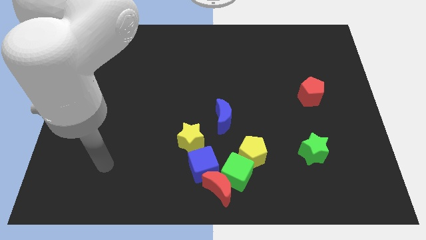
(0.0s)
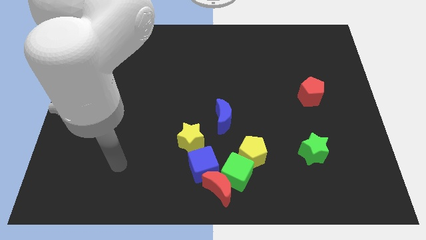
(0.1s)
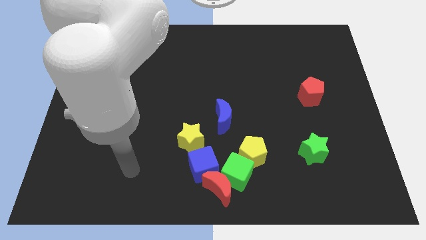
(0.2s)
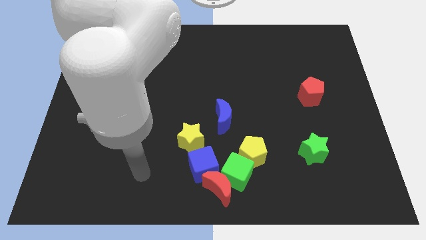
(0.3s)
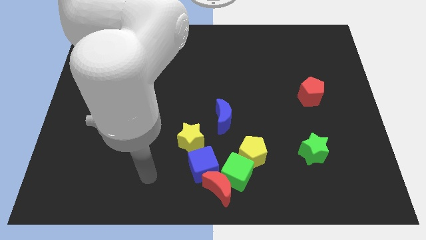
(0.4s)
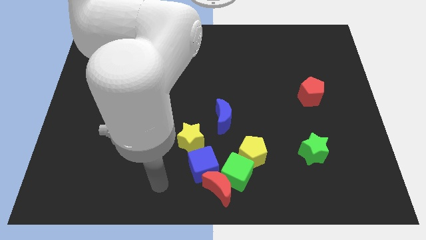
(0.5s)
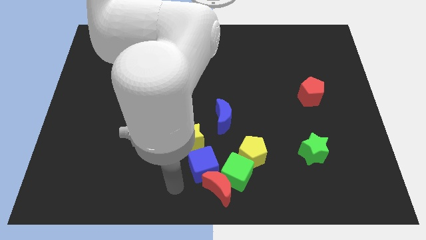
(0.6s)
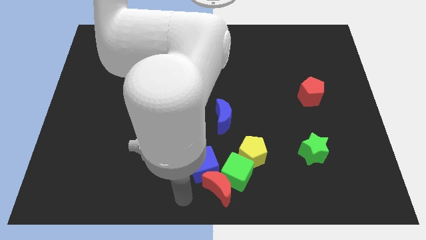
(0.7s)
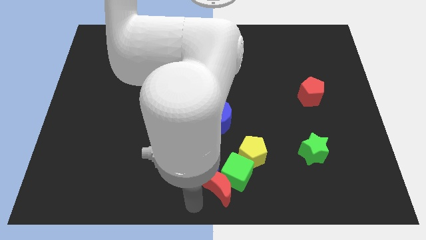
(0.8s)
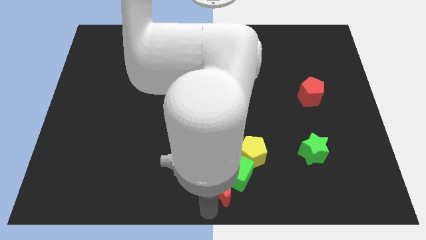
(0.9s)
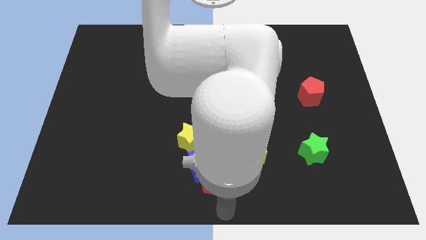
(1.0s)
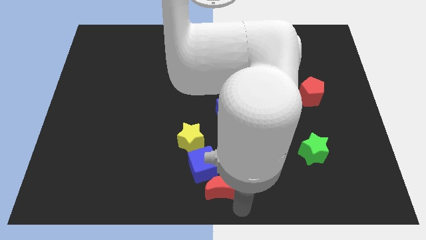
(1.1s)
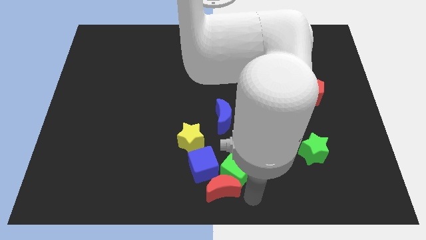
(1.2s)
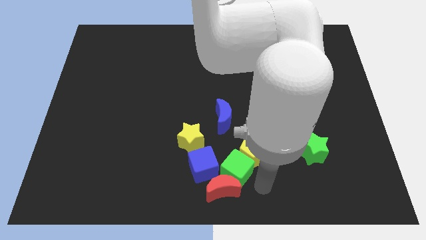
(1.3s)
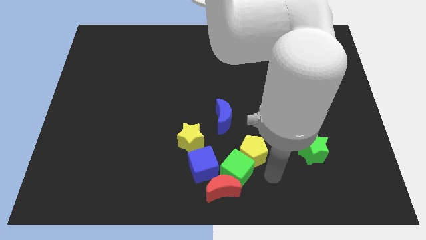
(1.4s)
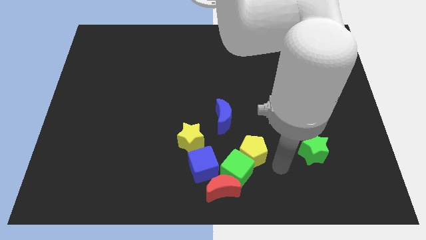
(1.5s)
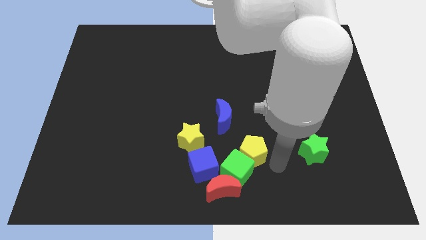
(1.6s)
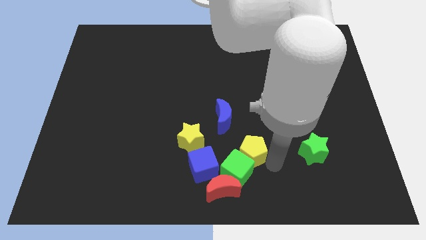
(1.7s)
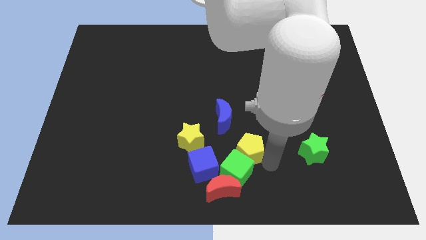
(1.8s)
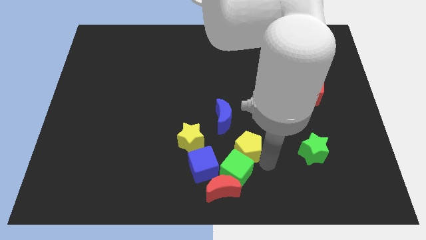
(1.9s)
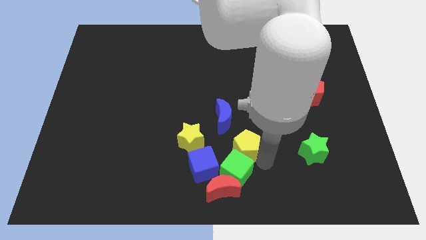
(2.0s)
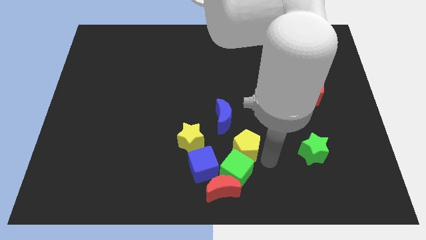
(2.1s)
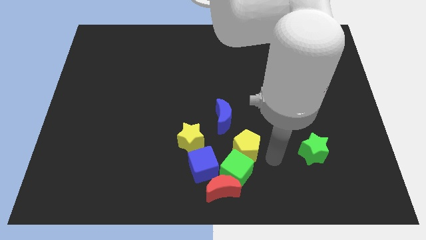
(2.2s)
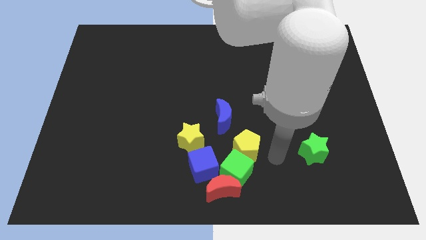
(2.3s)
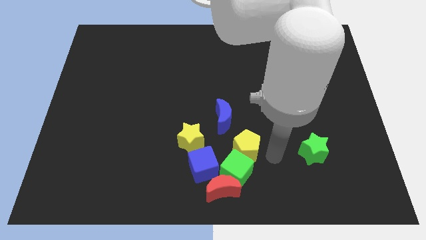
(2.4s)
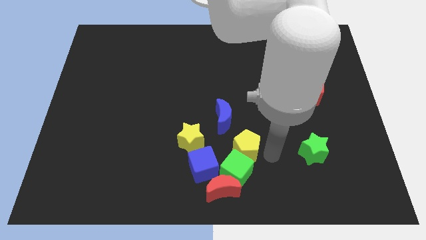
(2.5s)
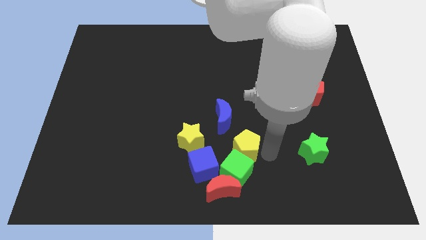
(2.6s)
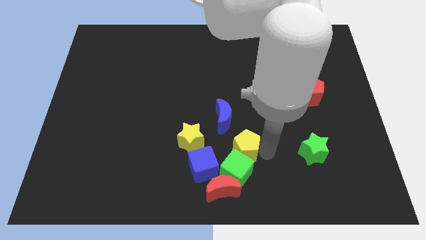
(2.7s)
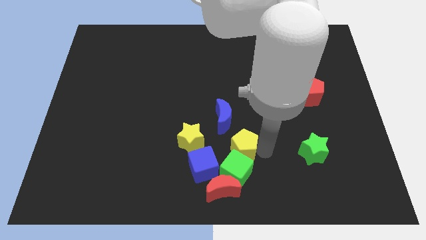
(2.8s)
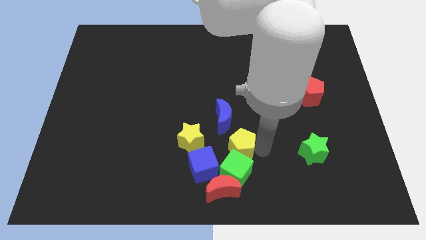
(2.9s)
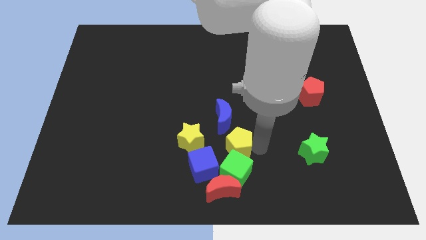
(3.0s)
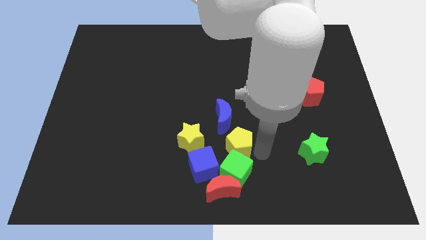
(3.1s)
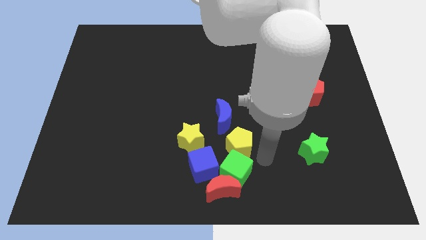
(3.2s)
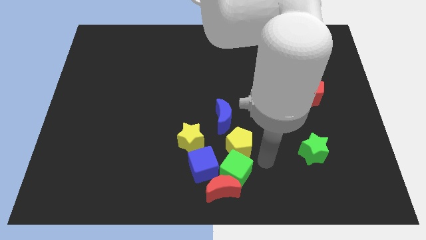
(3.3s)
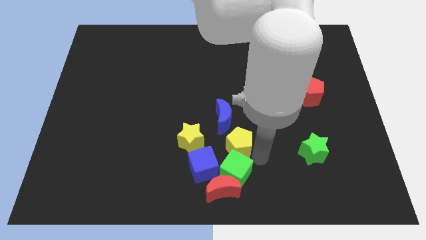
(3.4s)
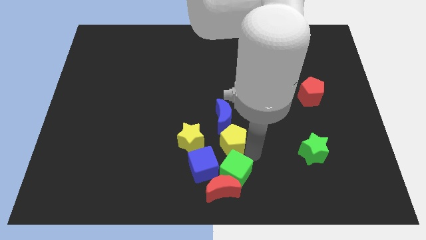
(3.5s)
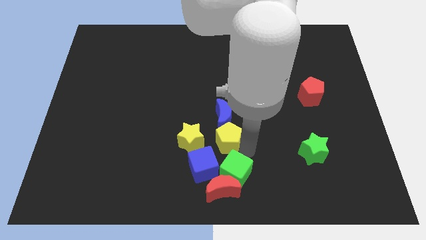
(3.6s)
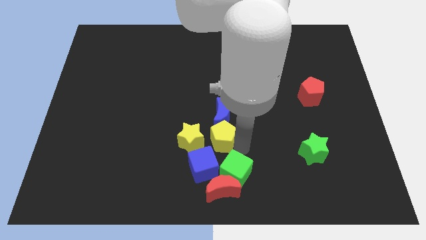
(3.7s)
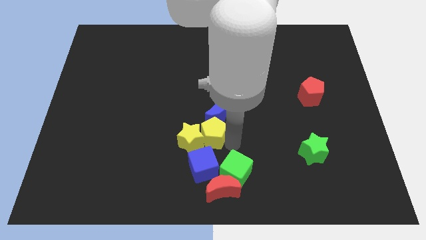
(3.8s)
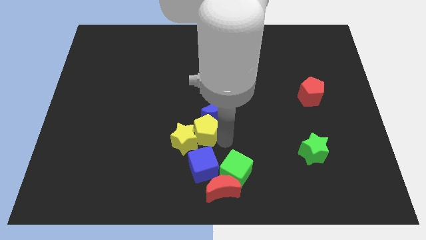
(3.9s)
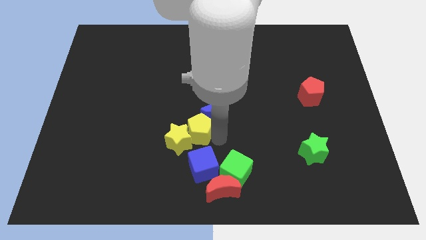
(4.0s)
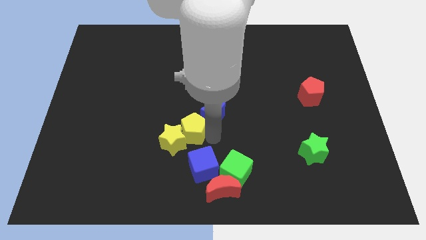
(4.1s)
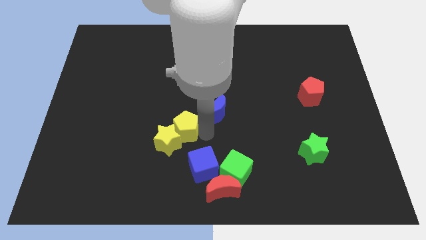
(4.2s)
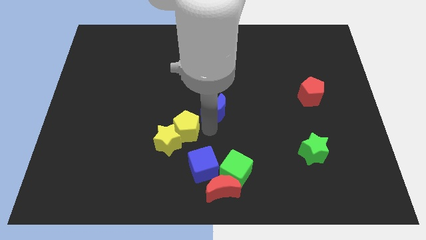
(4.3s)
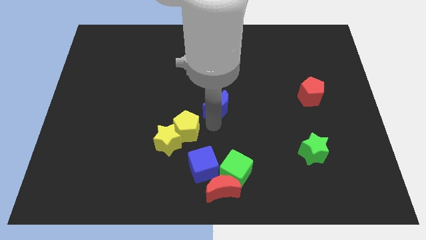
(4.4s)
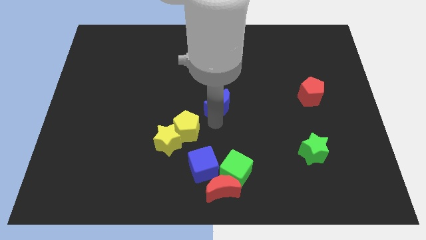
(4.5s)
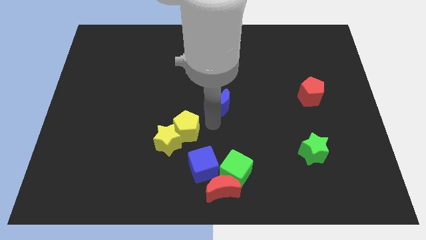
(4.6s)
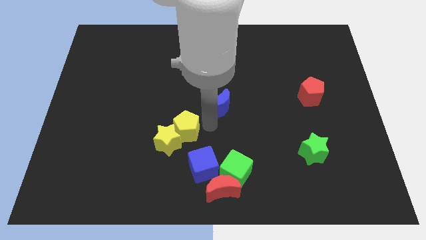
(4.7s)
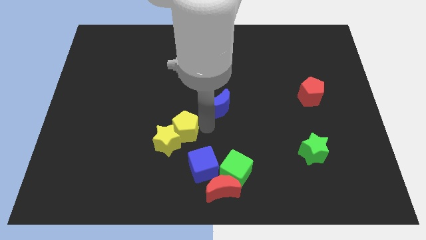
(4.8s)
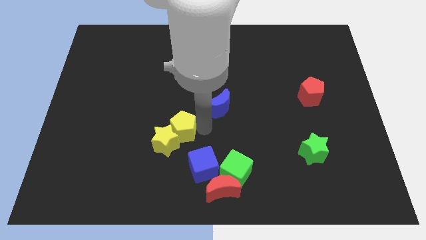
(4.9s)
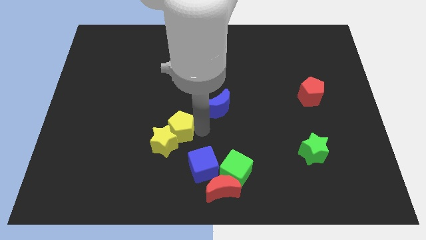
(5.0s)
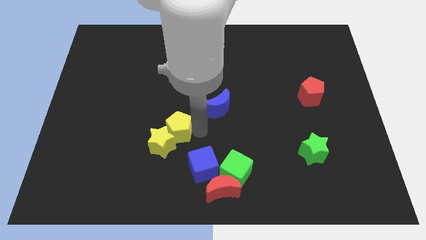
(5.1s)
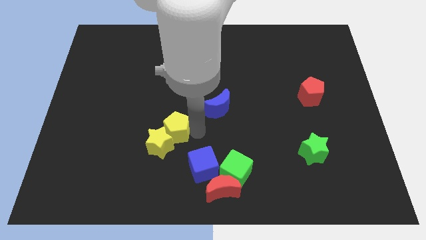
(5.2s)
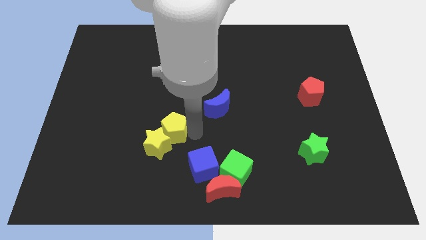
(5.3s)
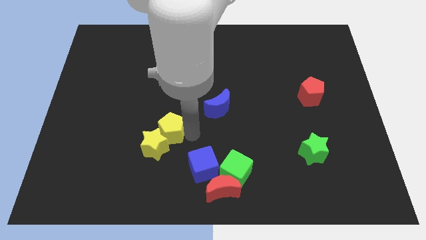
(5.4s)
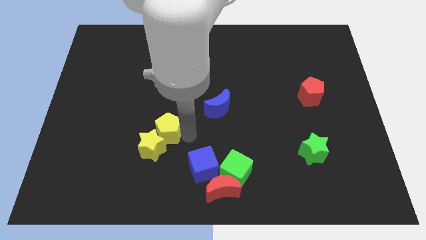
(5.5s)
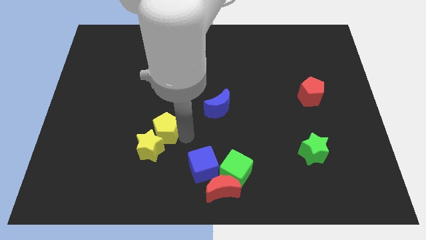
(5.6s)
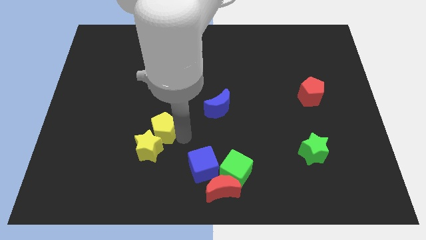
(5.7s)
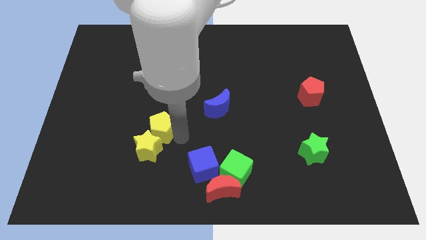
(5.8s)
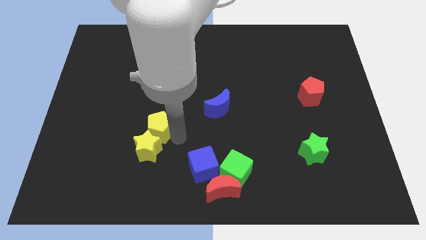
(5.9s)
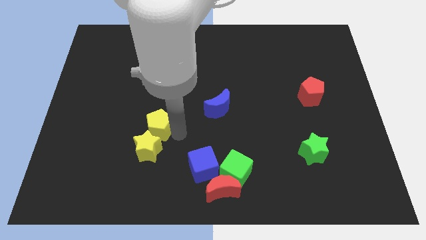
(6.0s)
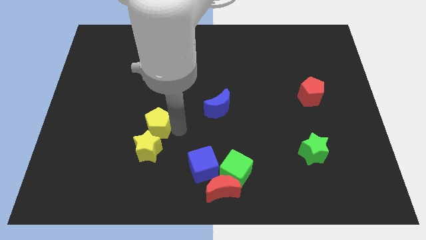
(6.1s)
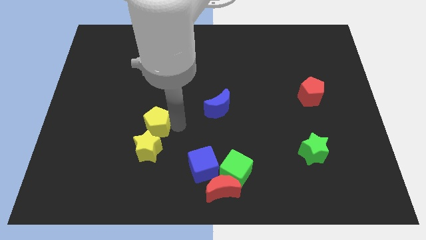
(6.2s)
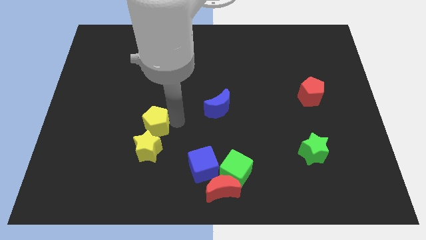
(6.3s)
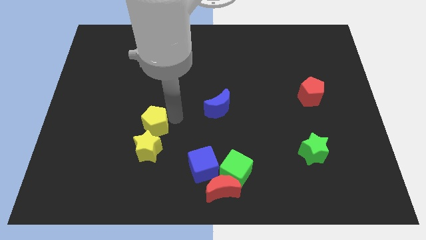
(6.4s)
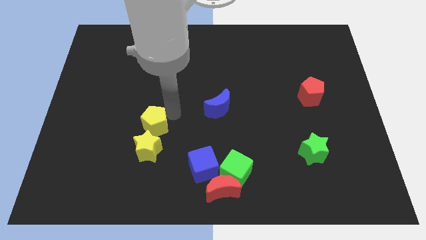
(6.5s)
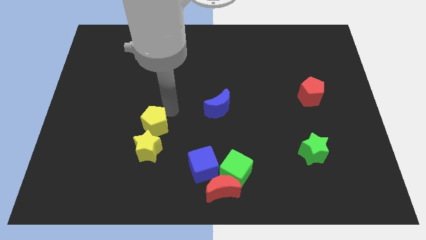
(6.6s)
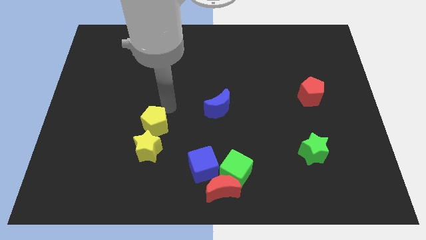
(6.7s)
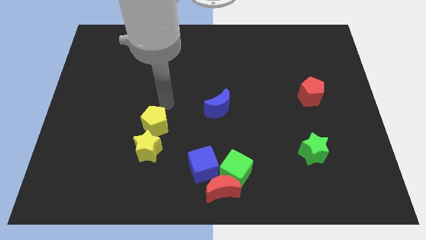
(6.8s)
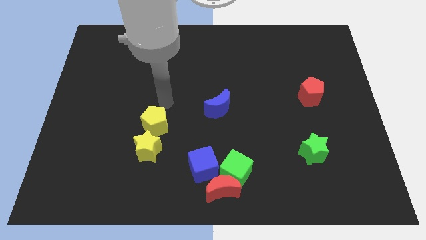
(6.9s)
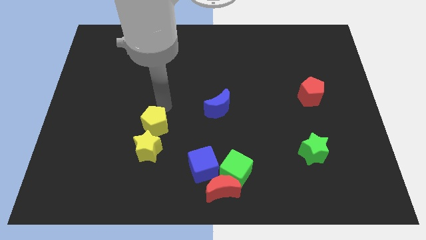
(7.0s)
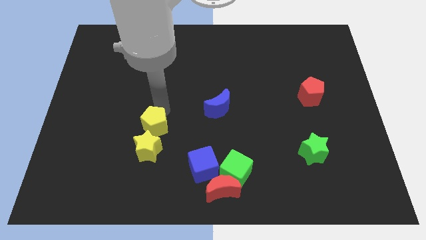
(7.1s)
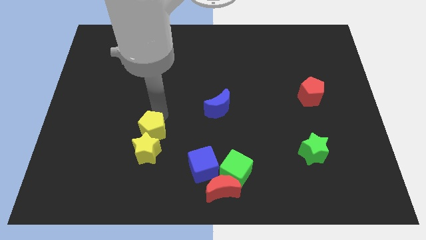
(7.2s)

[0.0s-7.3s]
slide the yellow pentagon to the left

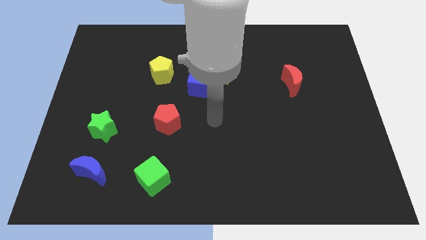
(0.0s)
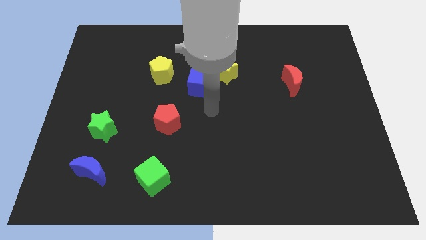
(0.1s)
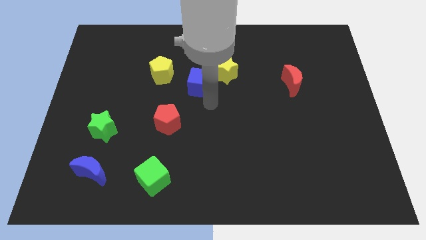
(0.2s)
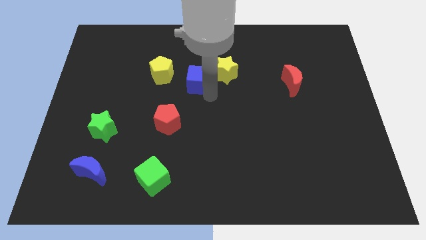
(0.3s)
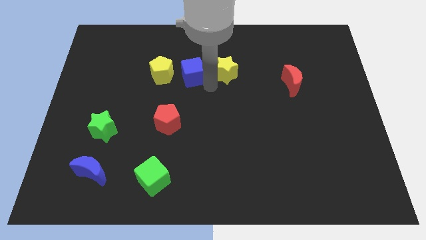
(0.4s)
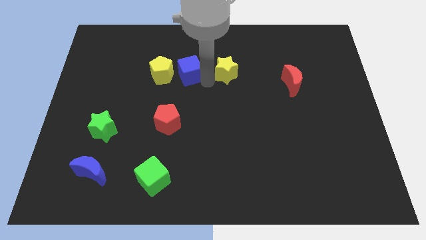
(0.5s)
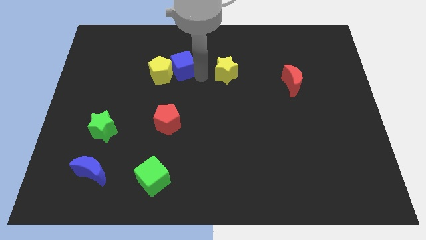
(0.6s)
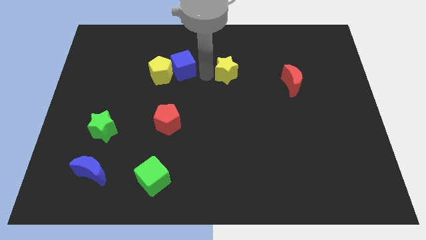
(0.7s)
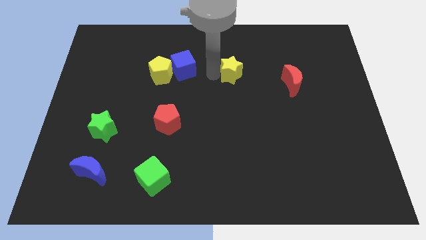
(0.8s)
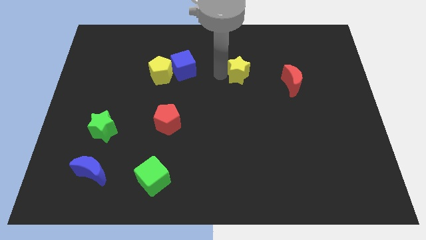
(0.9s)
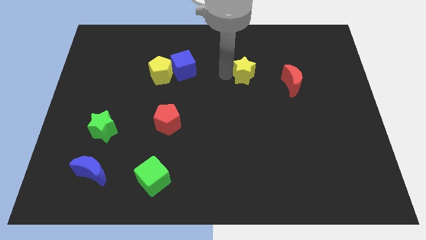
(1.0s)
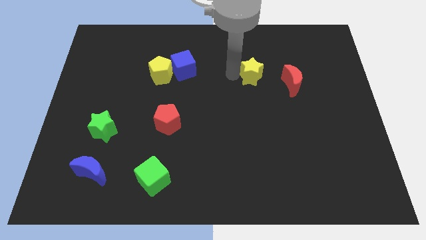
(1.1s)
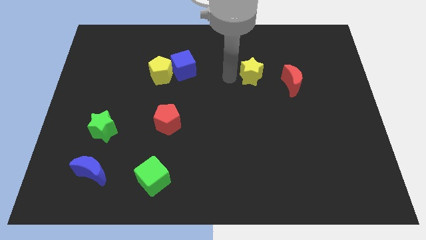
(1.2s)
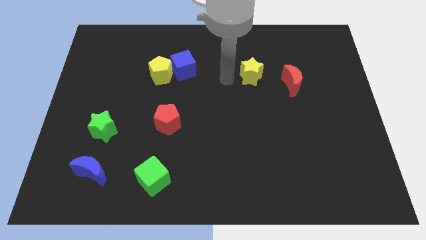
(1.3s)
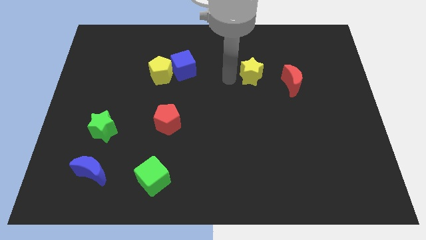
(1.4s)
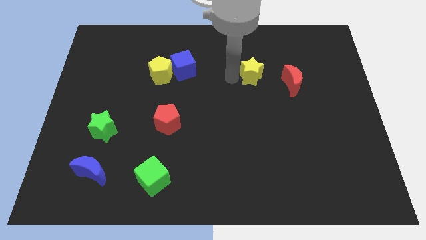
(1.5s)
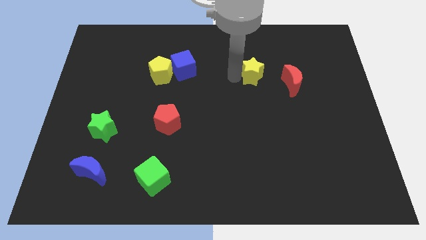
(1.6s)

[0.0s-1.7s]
push the yellow star somewhat to the right
